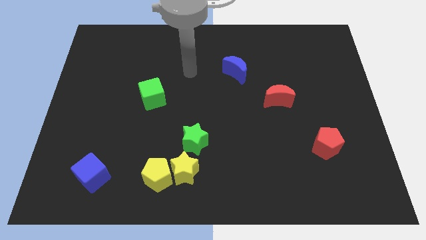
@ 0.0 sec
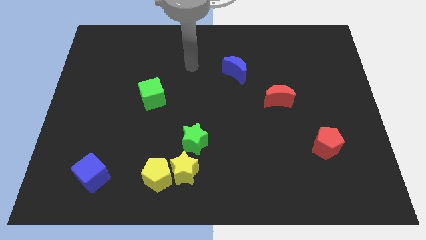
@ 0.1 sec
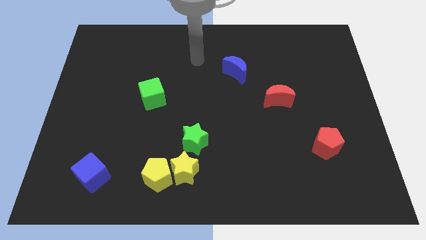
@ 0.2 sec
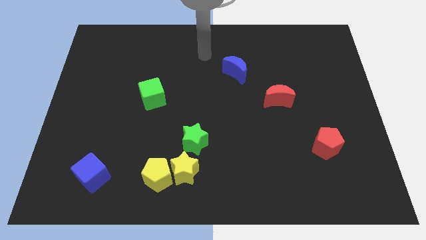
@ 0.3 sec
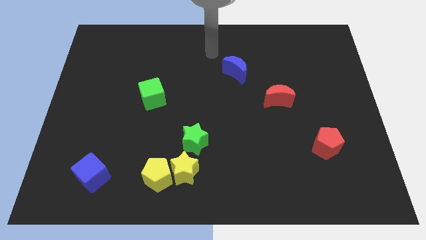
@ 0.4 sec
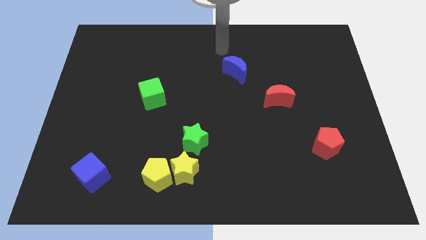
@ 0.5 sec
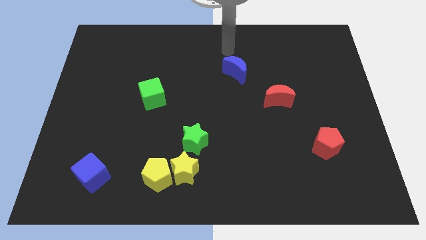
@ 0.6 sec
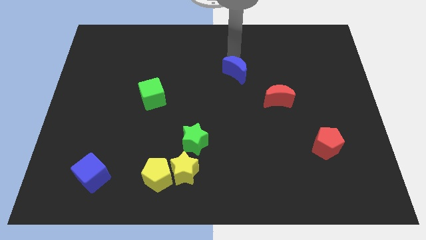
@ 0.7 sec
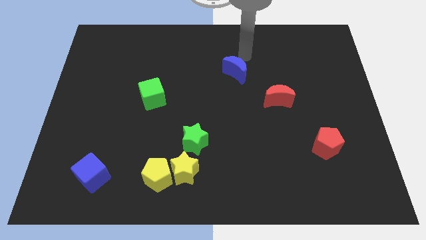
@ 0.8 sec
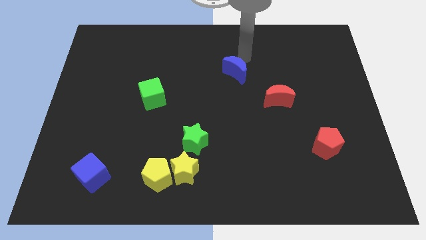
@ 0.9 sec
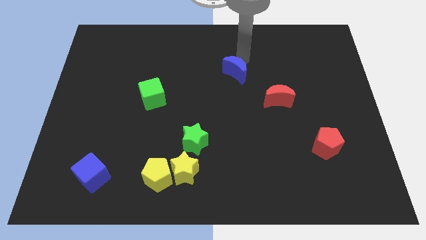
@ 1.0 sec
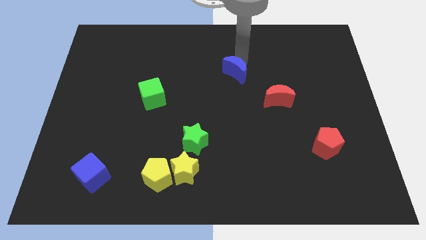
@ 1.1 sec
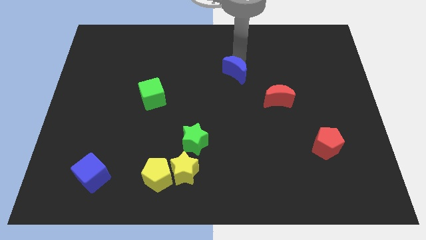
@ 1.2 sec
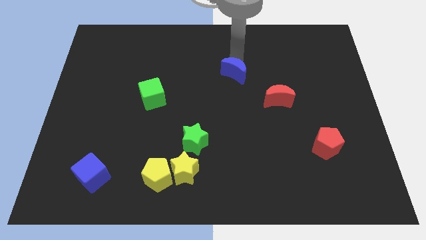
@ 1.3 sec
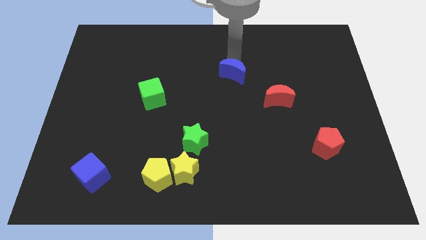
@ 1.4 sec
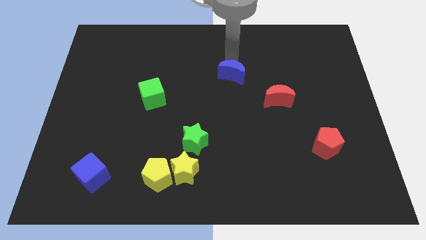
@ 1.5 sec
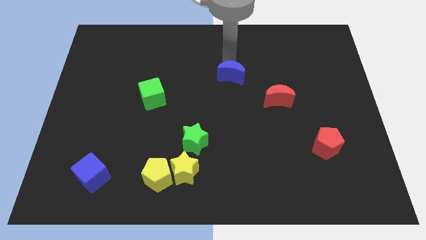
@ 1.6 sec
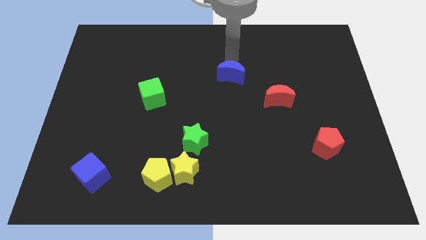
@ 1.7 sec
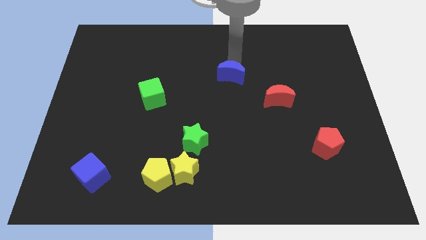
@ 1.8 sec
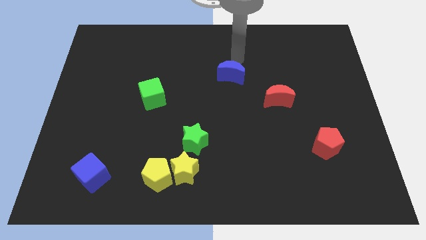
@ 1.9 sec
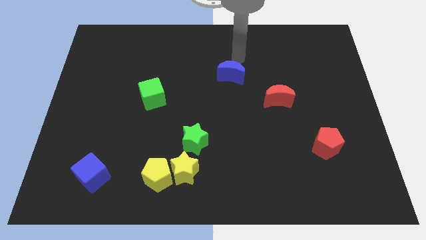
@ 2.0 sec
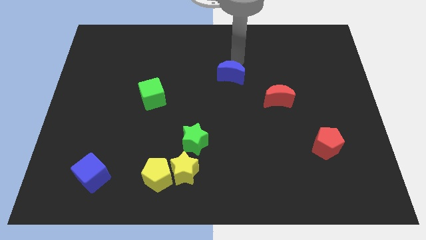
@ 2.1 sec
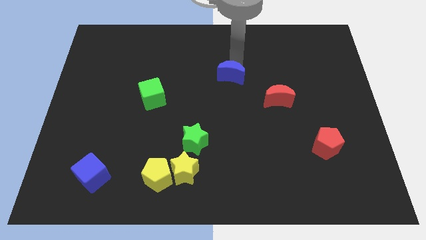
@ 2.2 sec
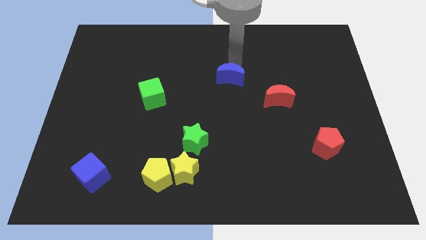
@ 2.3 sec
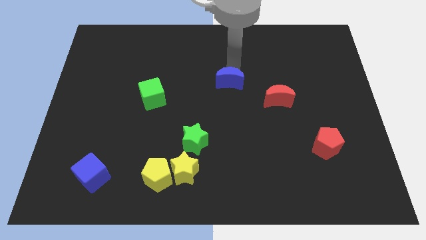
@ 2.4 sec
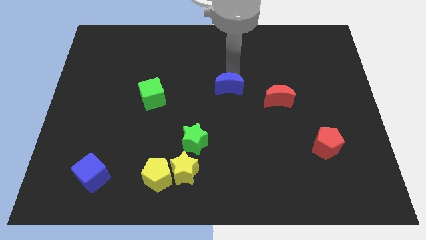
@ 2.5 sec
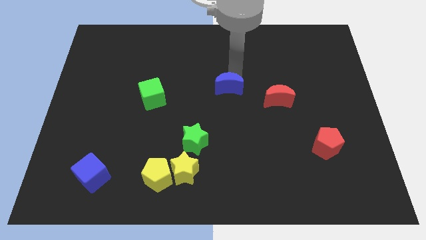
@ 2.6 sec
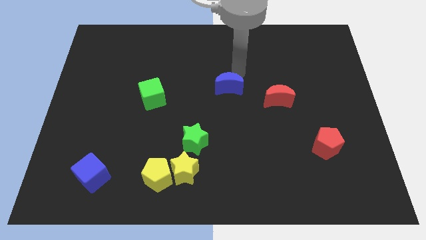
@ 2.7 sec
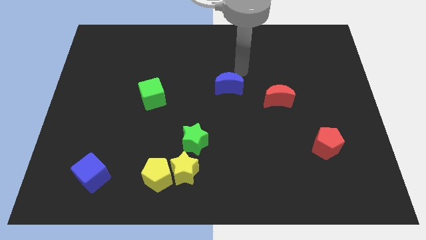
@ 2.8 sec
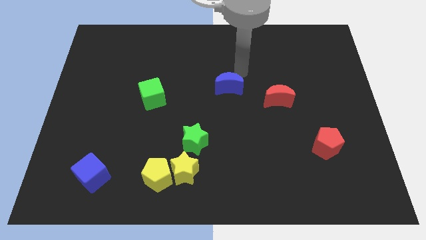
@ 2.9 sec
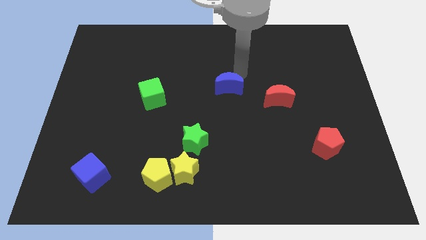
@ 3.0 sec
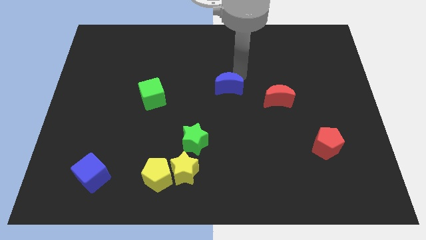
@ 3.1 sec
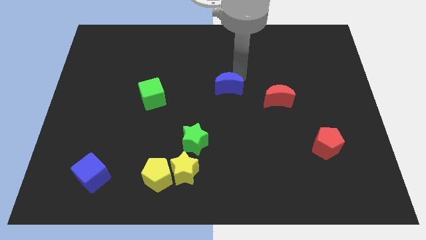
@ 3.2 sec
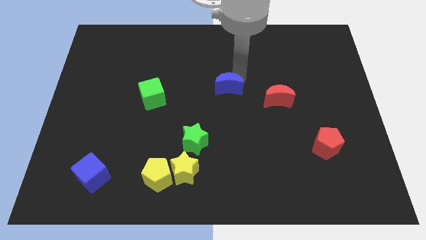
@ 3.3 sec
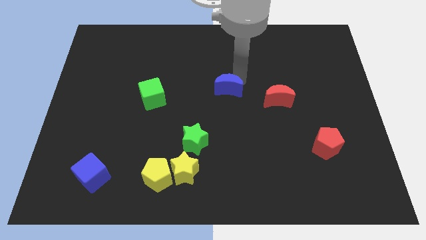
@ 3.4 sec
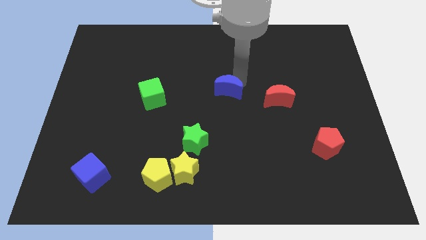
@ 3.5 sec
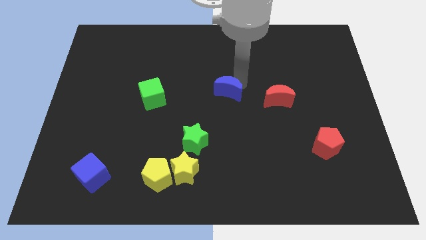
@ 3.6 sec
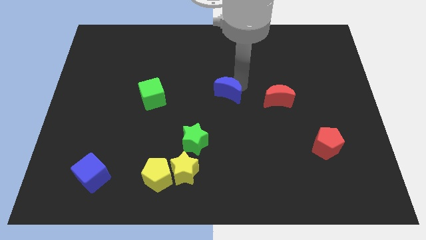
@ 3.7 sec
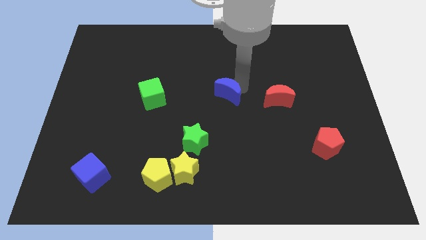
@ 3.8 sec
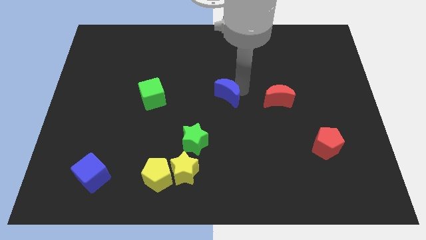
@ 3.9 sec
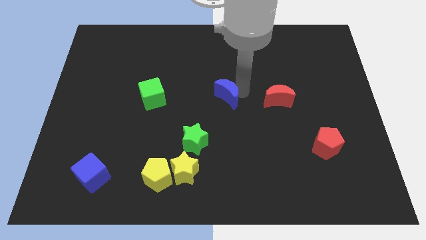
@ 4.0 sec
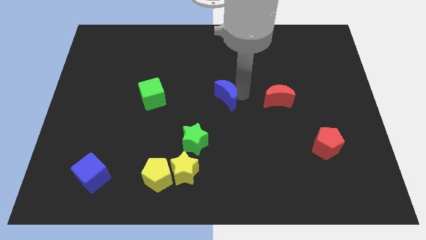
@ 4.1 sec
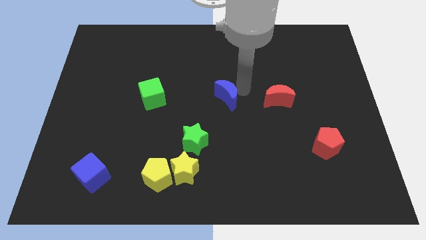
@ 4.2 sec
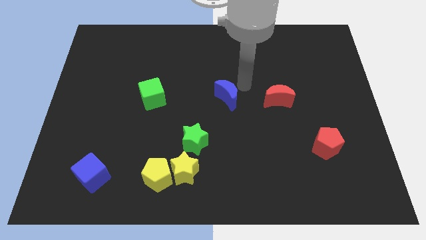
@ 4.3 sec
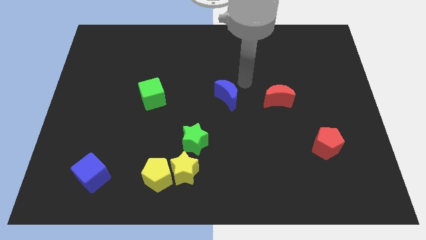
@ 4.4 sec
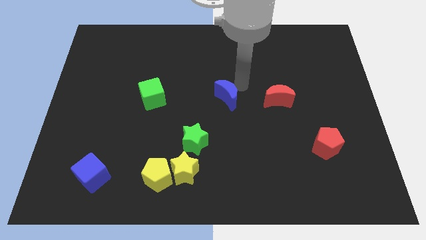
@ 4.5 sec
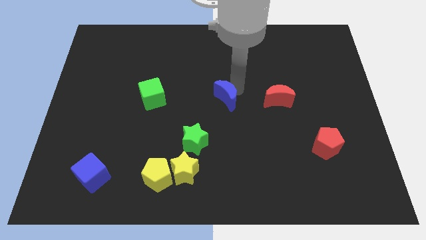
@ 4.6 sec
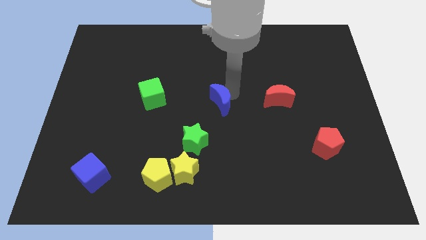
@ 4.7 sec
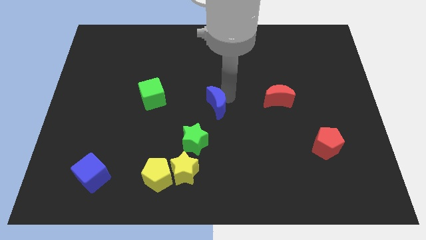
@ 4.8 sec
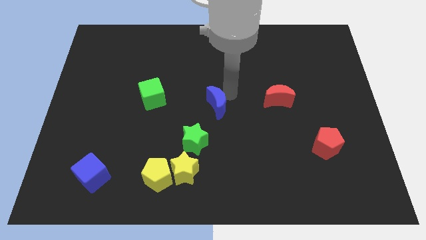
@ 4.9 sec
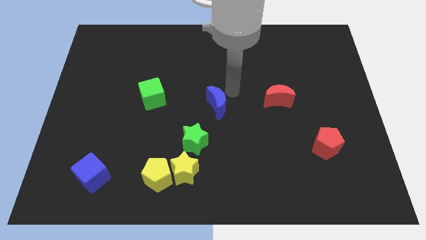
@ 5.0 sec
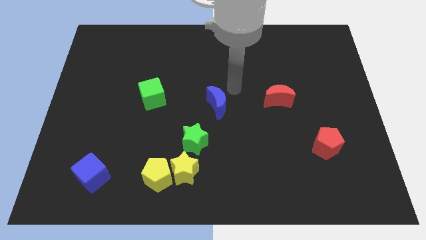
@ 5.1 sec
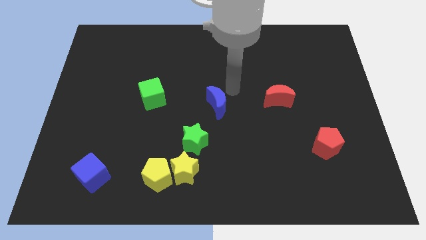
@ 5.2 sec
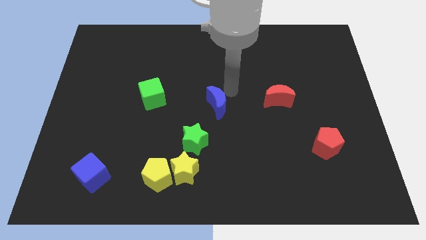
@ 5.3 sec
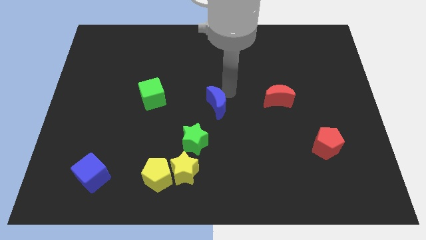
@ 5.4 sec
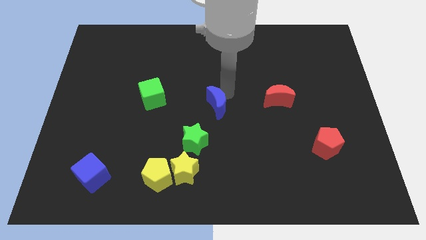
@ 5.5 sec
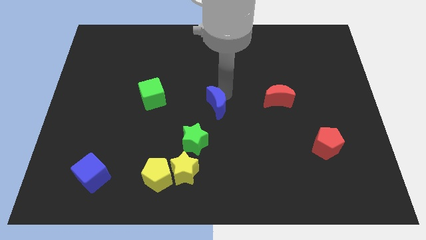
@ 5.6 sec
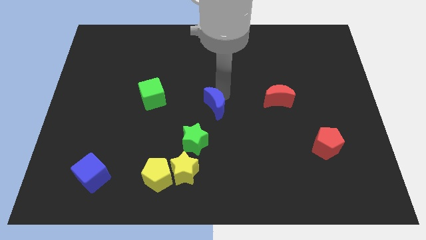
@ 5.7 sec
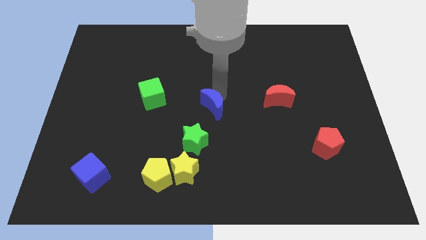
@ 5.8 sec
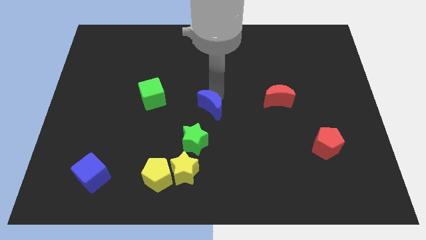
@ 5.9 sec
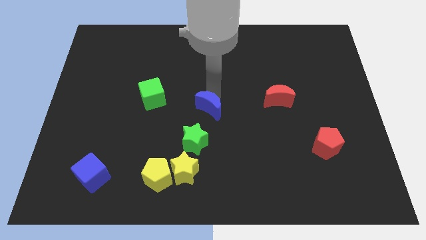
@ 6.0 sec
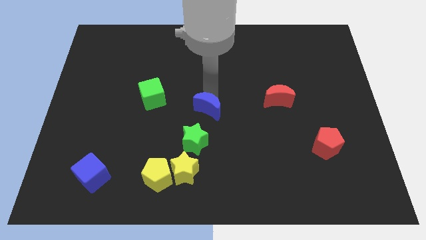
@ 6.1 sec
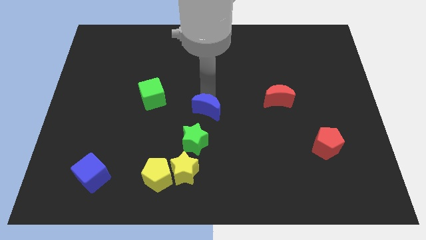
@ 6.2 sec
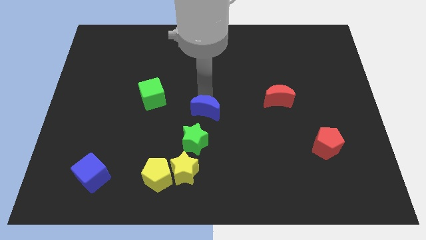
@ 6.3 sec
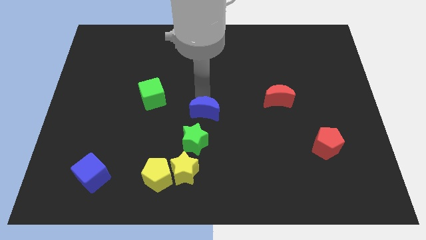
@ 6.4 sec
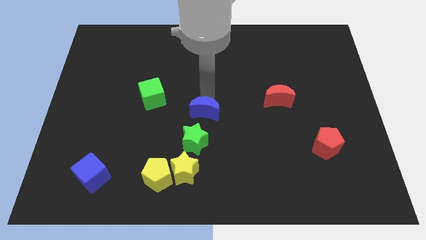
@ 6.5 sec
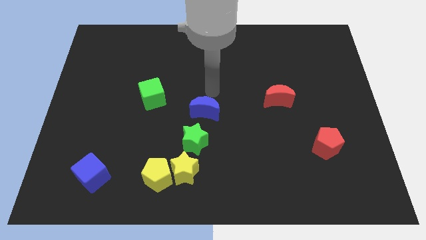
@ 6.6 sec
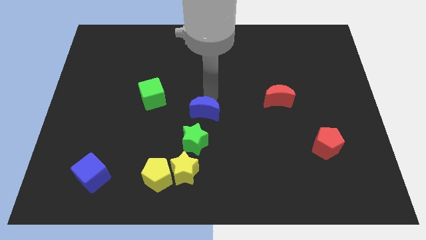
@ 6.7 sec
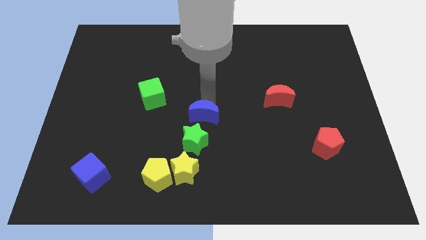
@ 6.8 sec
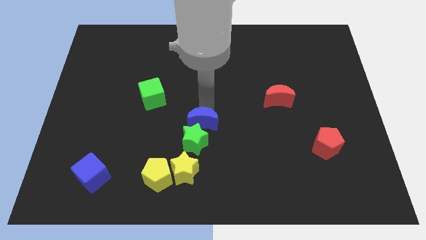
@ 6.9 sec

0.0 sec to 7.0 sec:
slide the blue moon next to the green star

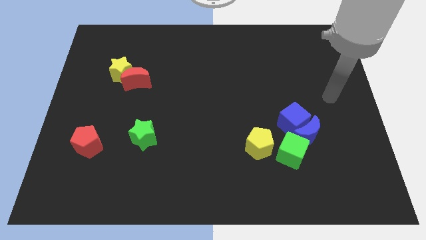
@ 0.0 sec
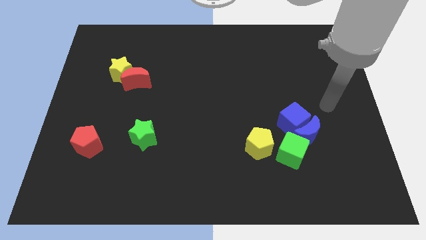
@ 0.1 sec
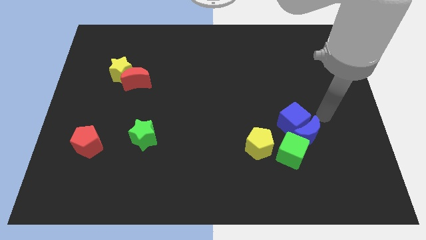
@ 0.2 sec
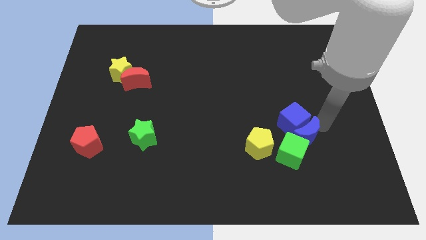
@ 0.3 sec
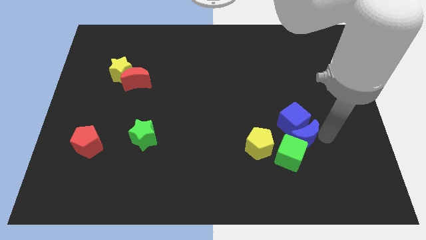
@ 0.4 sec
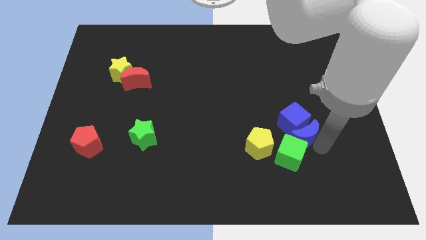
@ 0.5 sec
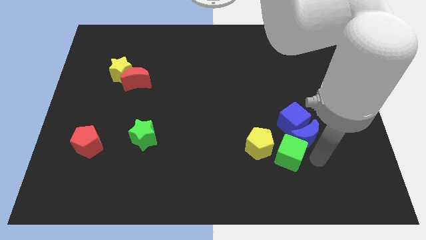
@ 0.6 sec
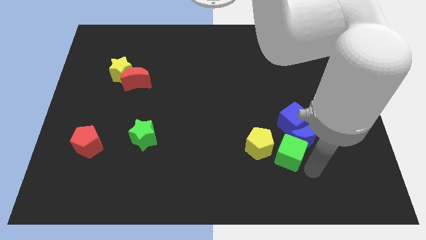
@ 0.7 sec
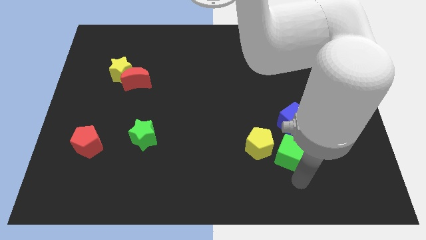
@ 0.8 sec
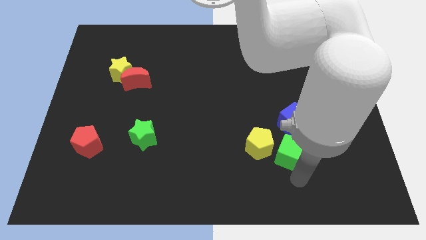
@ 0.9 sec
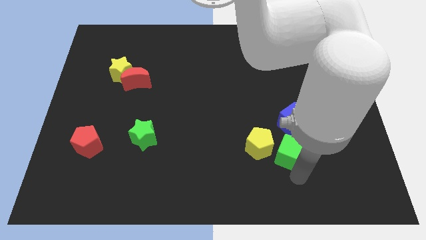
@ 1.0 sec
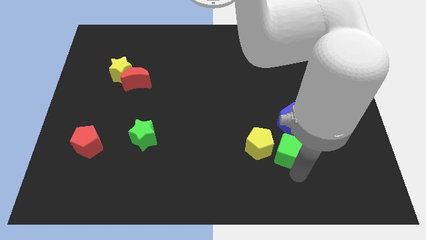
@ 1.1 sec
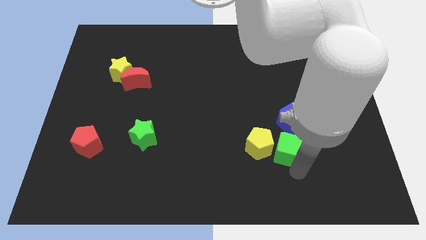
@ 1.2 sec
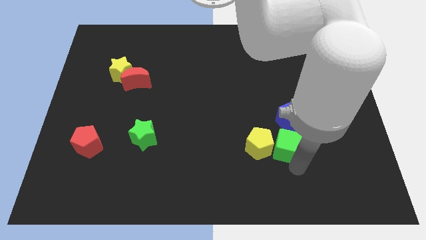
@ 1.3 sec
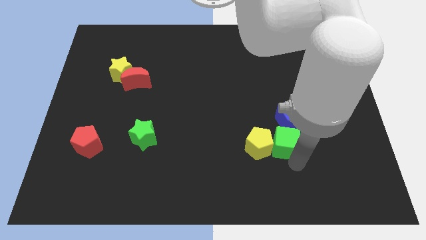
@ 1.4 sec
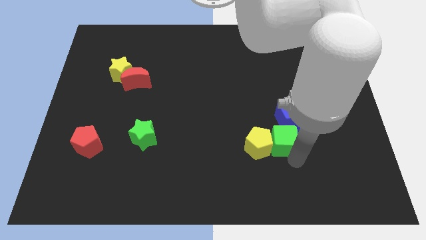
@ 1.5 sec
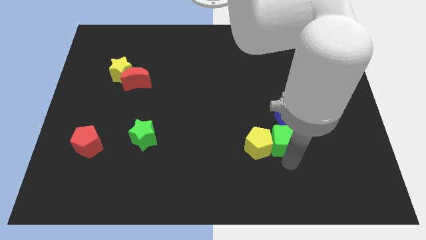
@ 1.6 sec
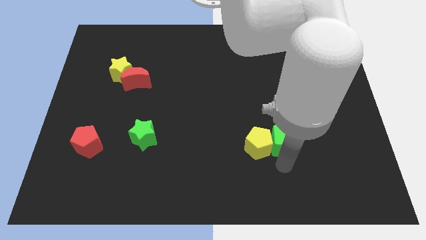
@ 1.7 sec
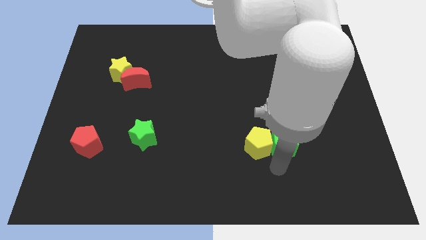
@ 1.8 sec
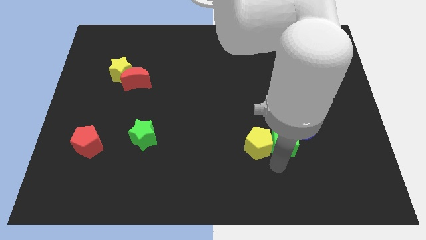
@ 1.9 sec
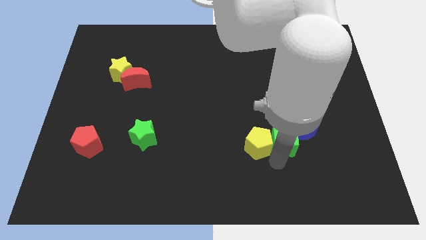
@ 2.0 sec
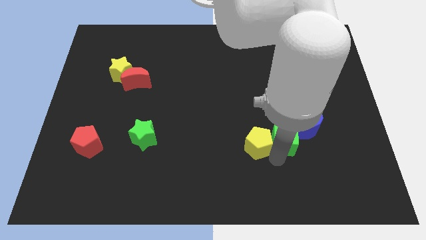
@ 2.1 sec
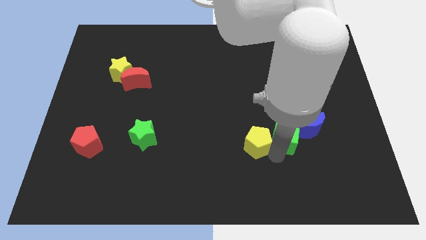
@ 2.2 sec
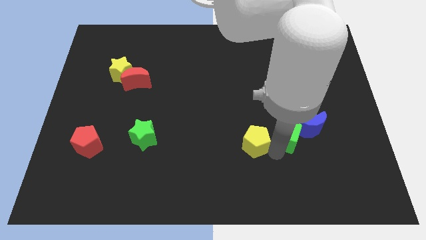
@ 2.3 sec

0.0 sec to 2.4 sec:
move the green cube to the blue cube
